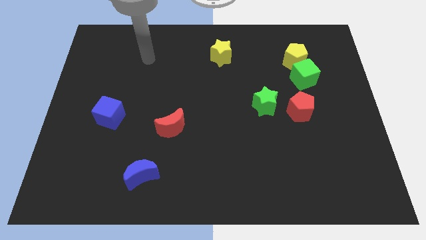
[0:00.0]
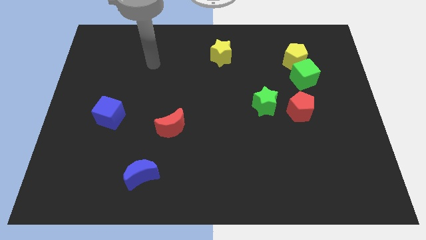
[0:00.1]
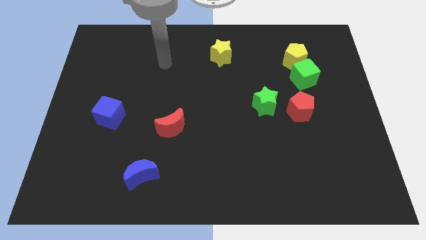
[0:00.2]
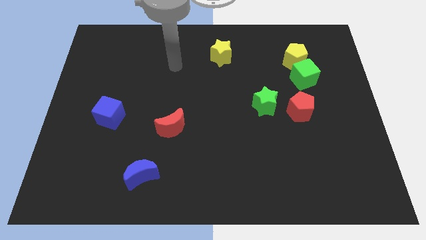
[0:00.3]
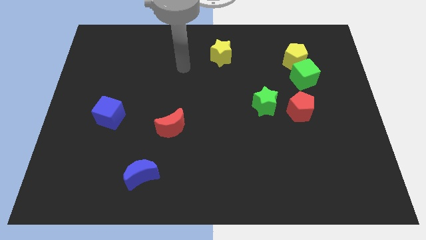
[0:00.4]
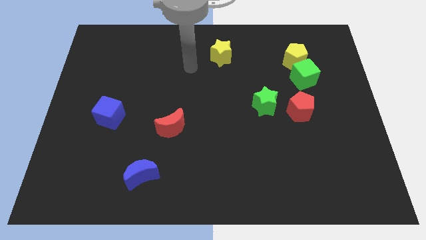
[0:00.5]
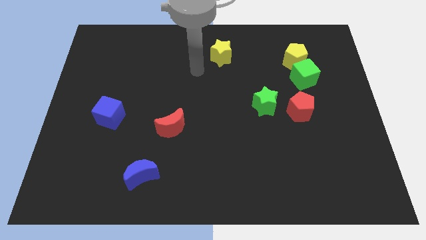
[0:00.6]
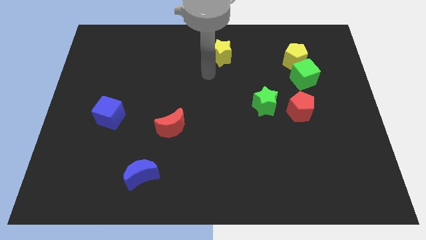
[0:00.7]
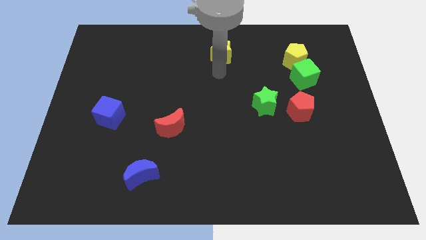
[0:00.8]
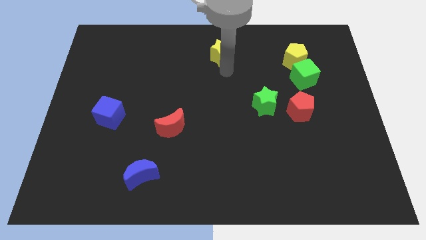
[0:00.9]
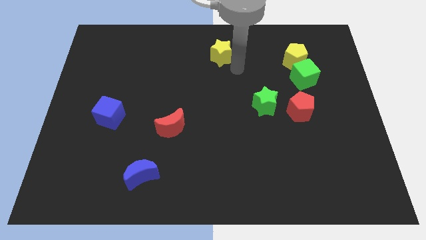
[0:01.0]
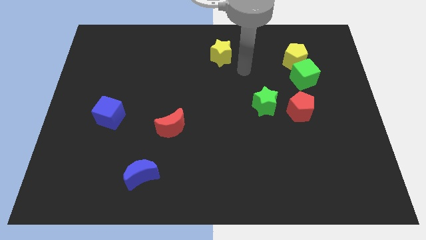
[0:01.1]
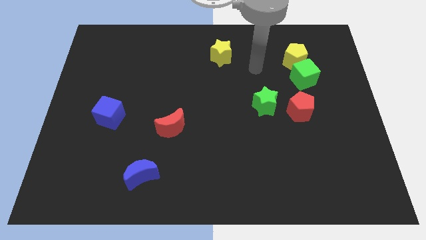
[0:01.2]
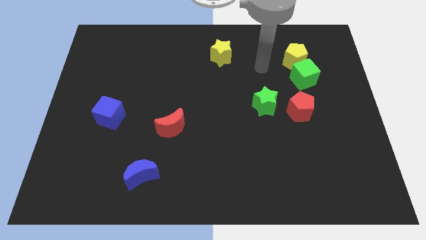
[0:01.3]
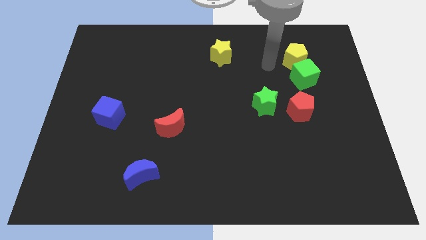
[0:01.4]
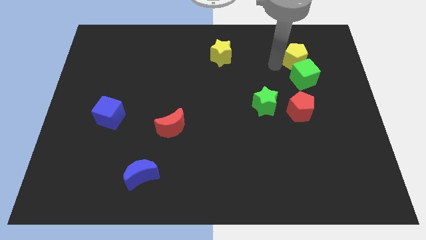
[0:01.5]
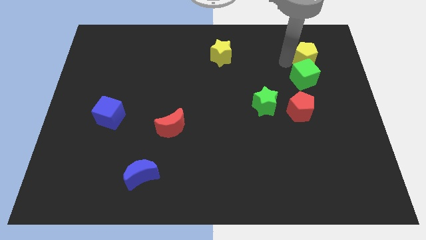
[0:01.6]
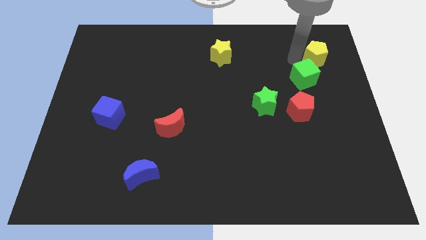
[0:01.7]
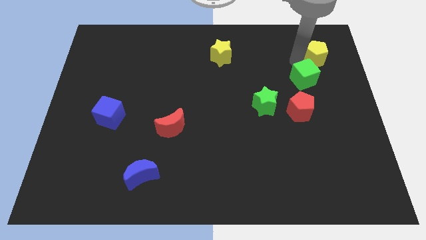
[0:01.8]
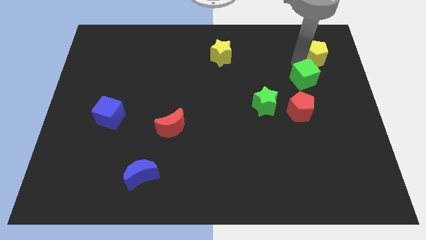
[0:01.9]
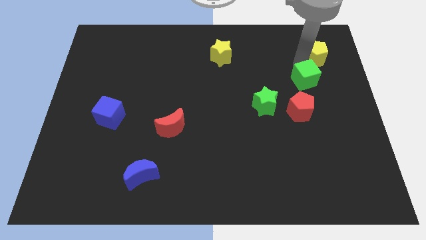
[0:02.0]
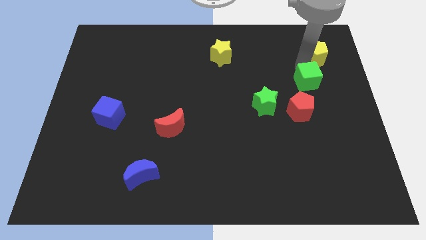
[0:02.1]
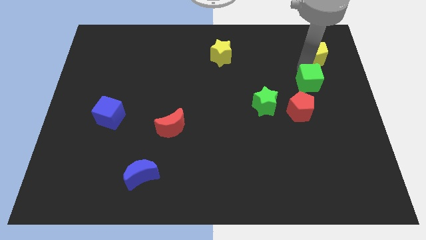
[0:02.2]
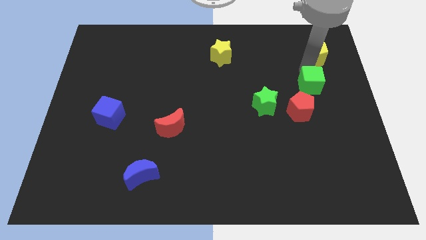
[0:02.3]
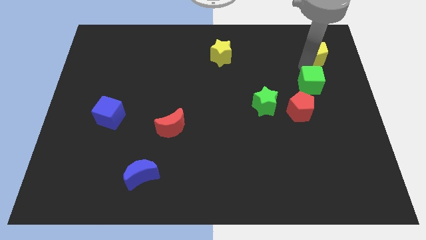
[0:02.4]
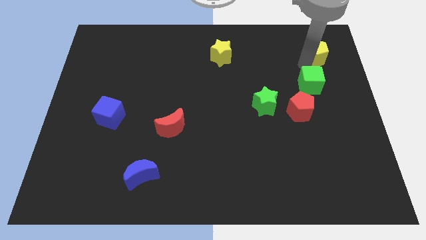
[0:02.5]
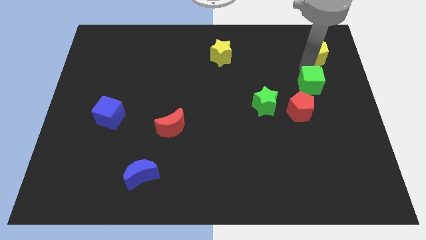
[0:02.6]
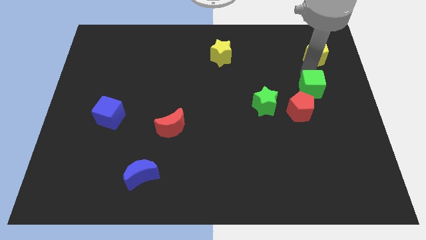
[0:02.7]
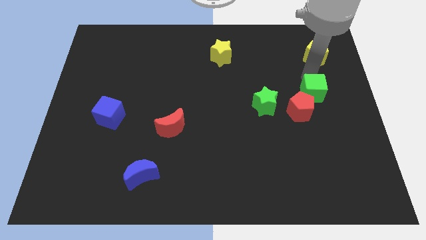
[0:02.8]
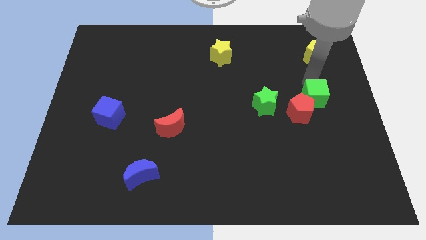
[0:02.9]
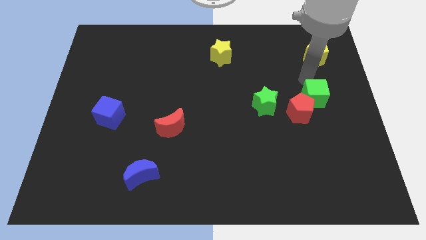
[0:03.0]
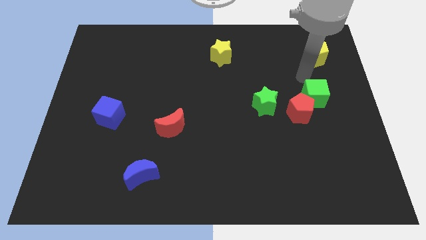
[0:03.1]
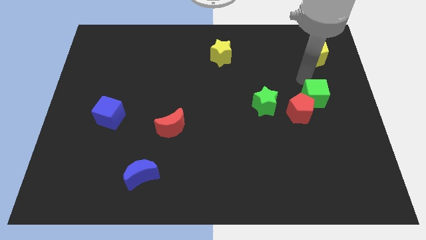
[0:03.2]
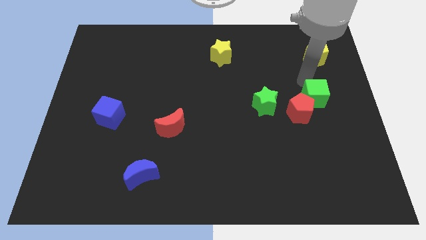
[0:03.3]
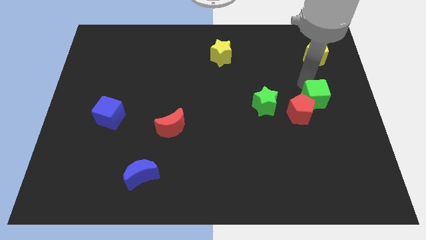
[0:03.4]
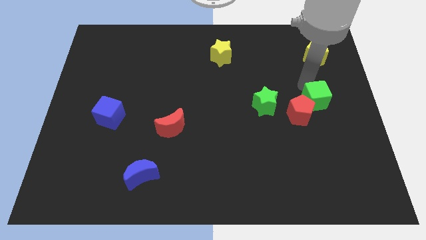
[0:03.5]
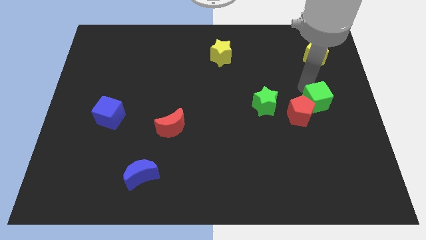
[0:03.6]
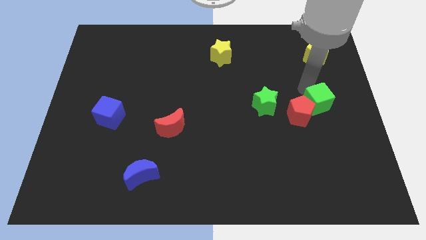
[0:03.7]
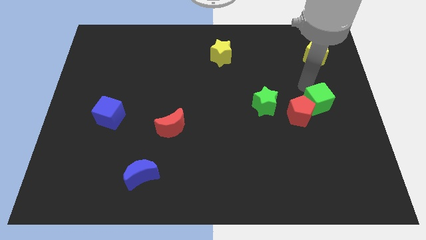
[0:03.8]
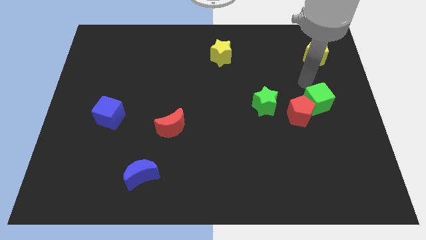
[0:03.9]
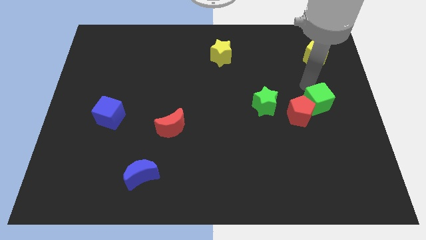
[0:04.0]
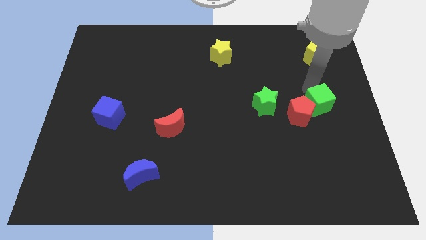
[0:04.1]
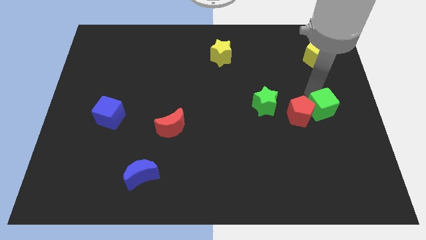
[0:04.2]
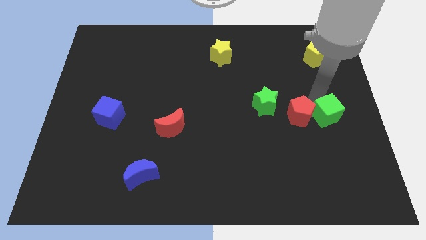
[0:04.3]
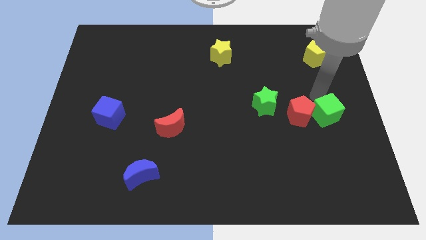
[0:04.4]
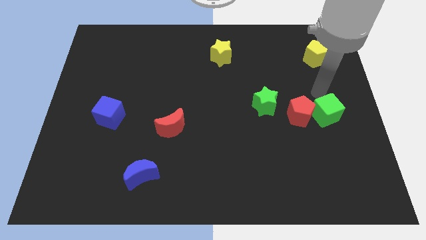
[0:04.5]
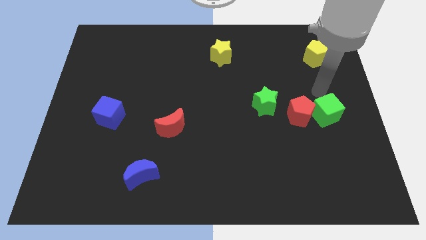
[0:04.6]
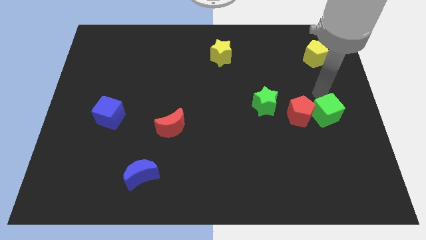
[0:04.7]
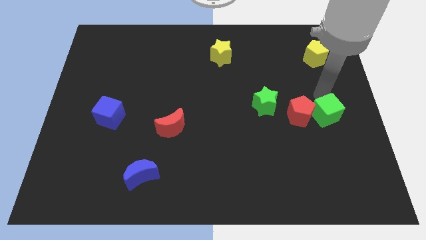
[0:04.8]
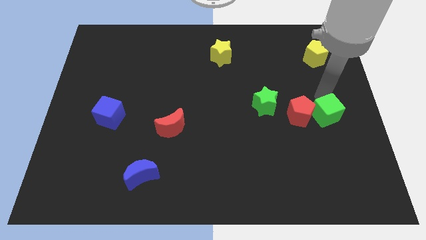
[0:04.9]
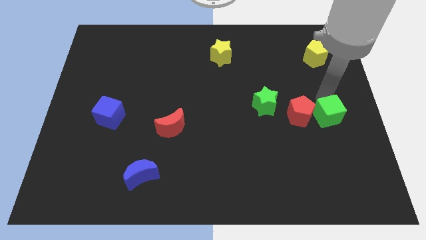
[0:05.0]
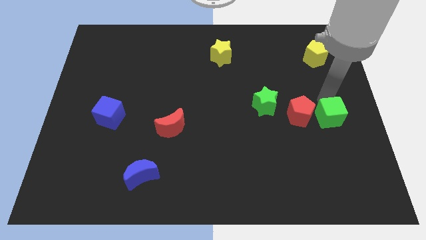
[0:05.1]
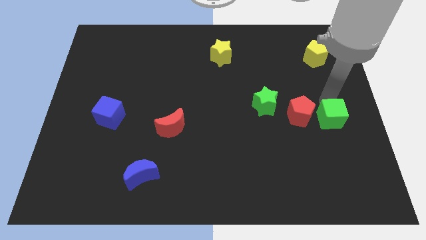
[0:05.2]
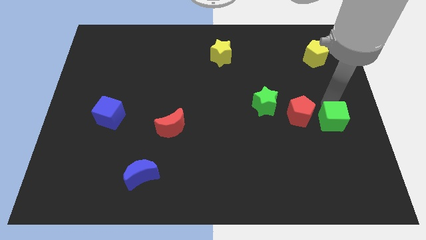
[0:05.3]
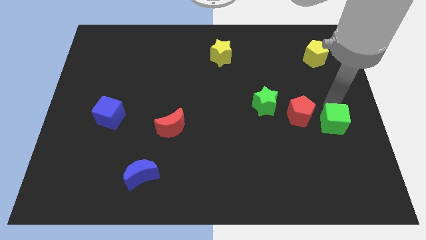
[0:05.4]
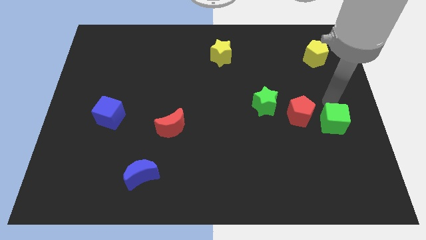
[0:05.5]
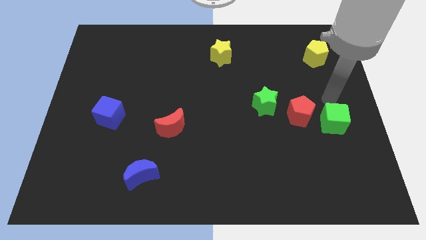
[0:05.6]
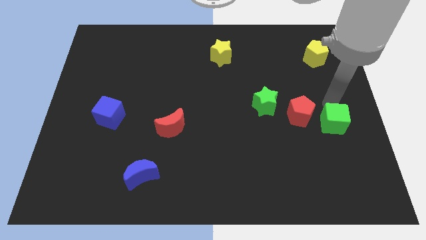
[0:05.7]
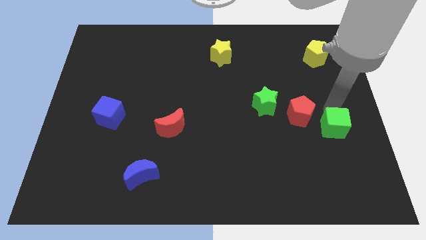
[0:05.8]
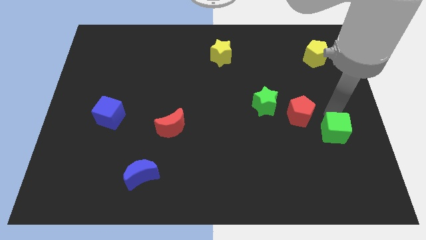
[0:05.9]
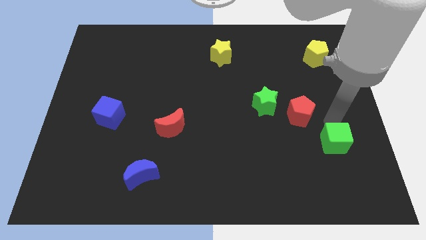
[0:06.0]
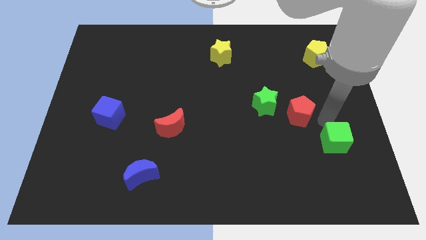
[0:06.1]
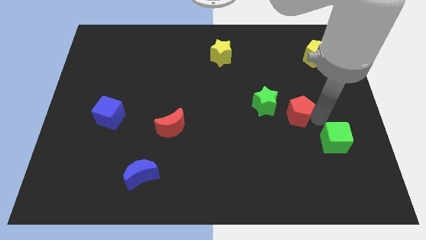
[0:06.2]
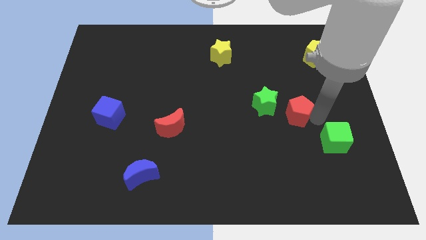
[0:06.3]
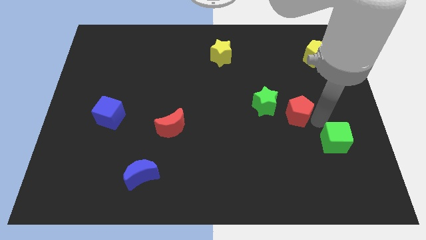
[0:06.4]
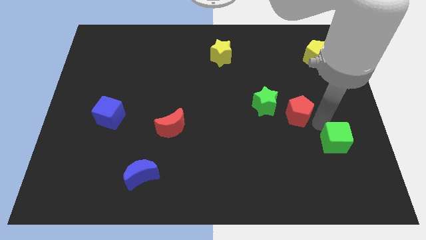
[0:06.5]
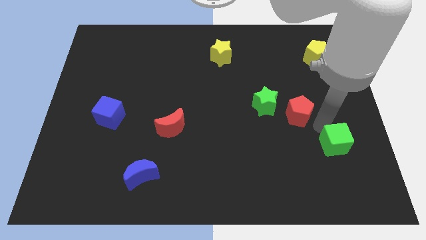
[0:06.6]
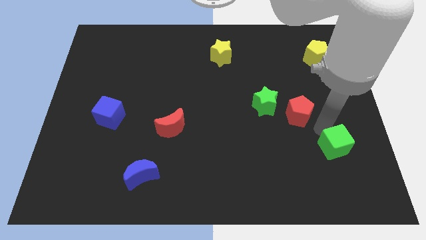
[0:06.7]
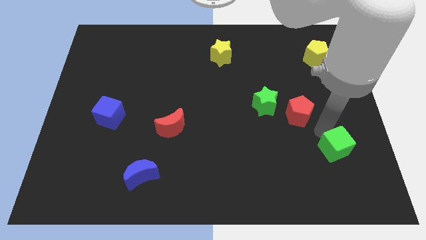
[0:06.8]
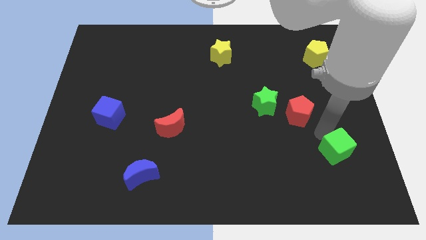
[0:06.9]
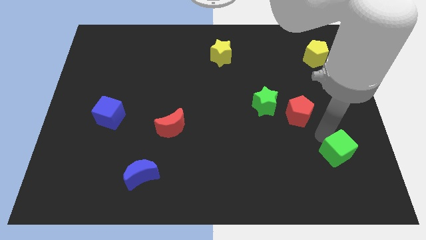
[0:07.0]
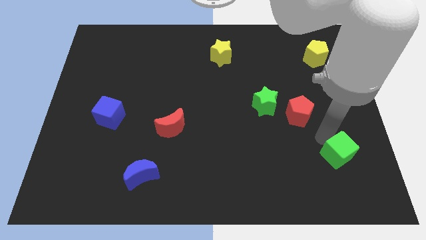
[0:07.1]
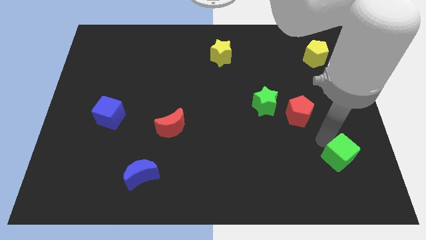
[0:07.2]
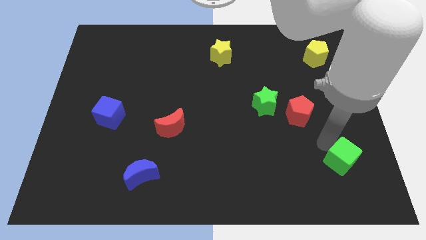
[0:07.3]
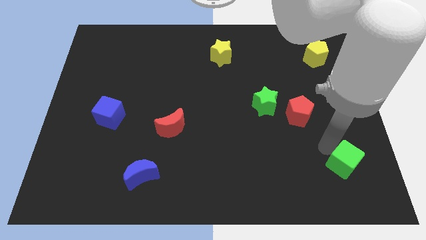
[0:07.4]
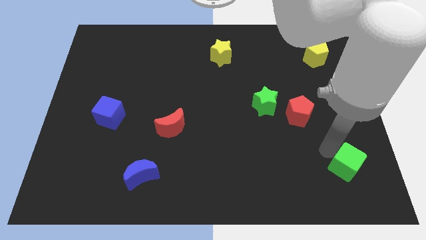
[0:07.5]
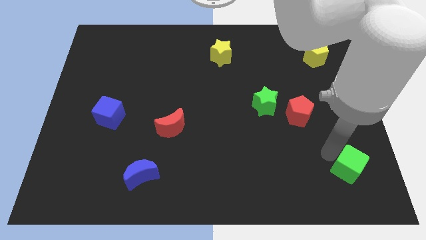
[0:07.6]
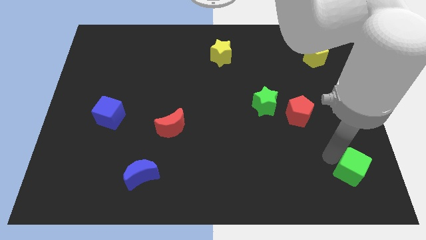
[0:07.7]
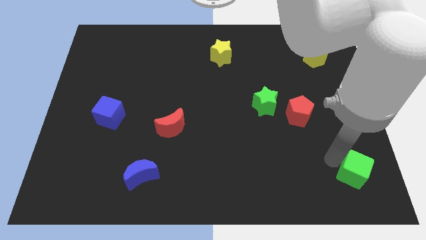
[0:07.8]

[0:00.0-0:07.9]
move the green cube to the bottom right
